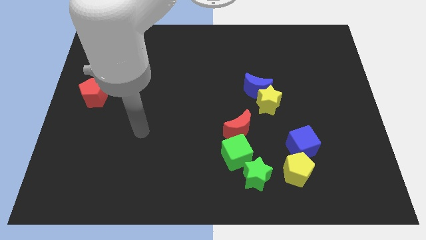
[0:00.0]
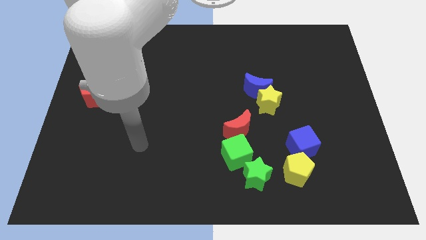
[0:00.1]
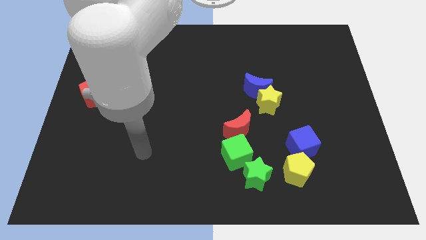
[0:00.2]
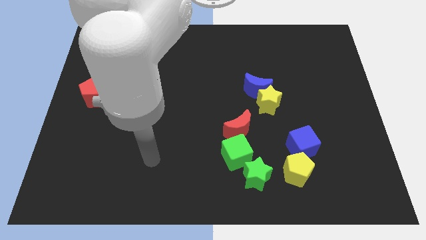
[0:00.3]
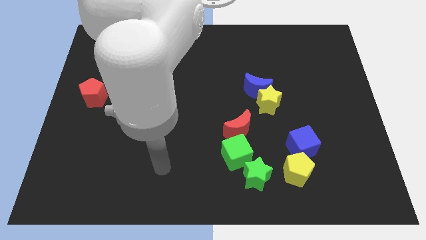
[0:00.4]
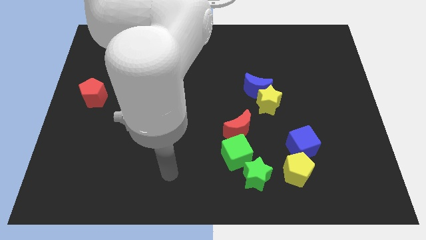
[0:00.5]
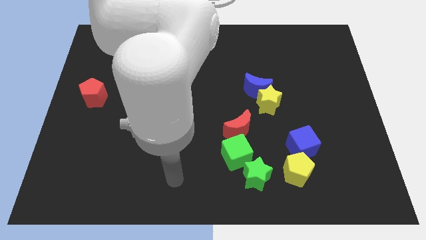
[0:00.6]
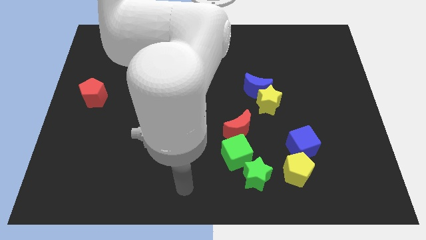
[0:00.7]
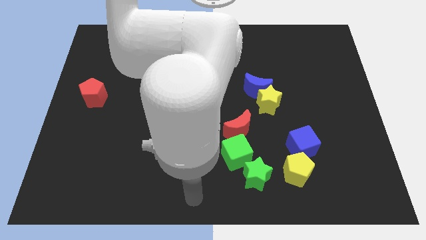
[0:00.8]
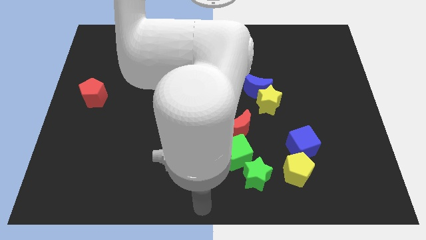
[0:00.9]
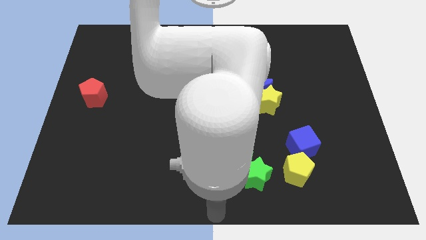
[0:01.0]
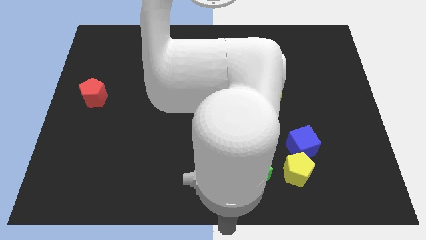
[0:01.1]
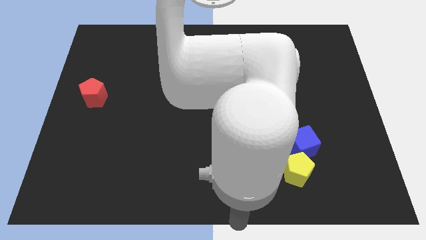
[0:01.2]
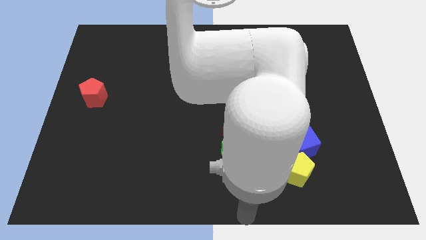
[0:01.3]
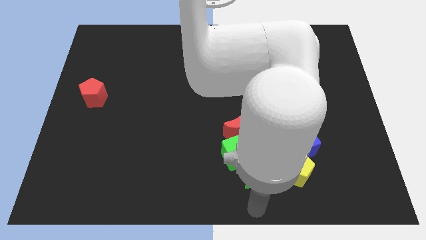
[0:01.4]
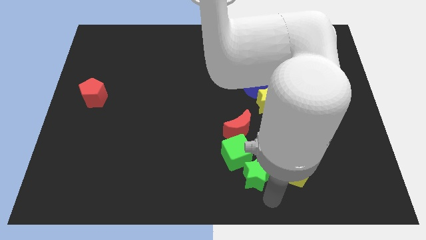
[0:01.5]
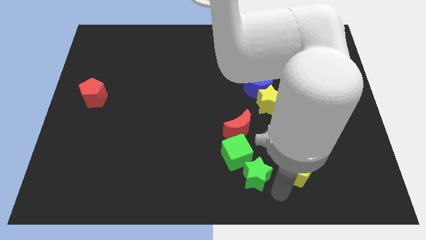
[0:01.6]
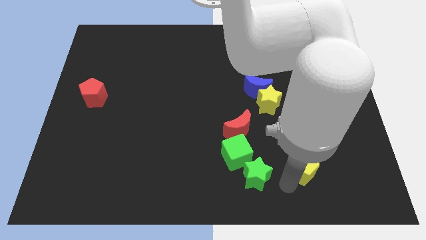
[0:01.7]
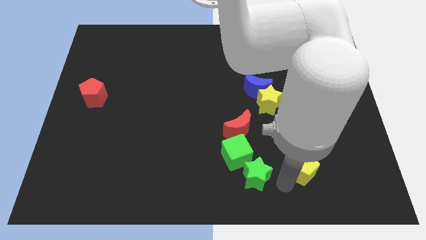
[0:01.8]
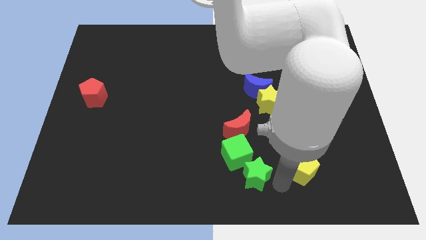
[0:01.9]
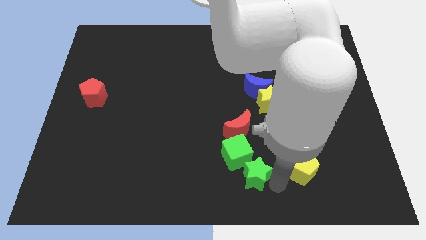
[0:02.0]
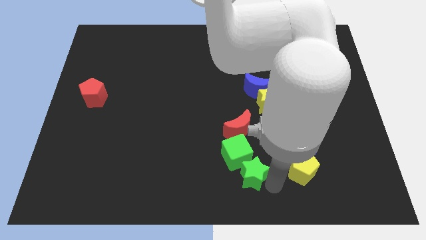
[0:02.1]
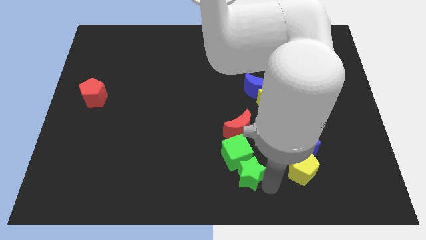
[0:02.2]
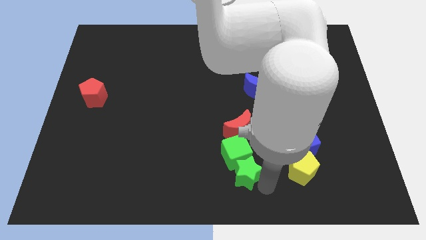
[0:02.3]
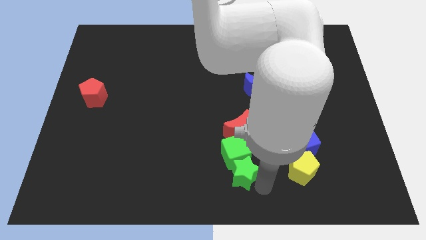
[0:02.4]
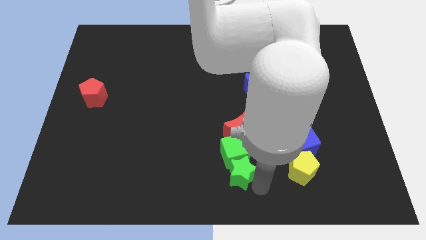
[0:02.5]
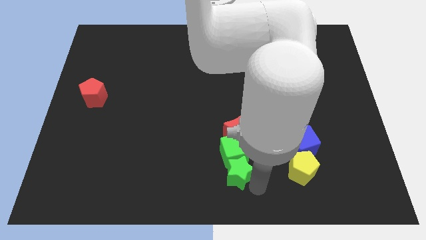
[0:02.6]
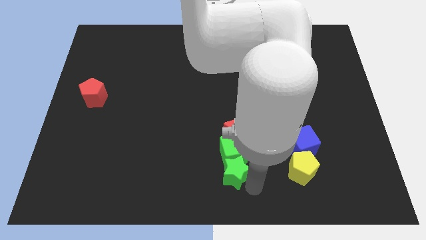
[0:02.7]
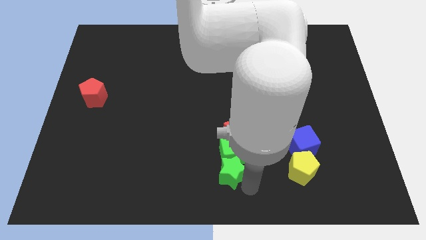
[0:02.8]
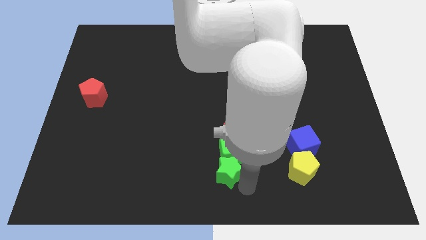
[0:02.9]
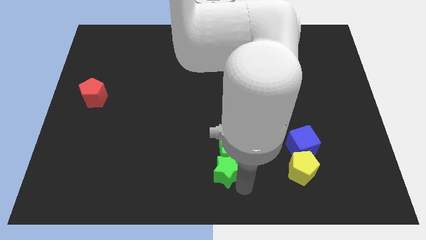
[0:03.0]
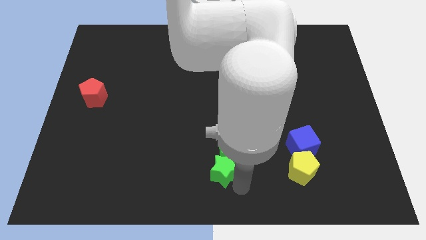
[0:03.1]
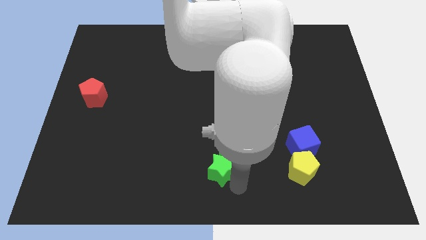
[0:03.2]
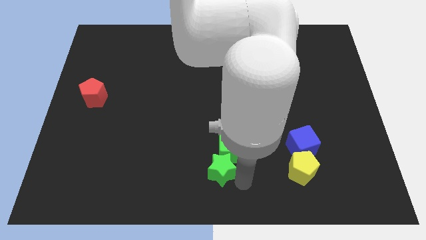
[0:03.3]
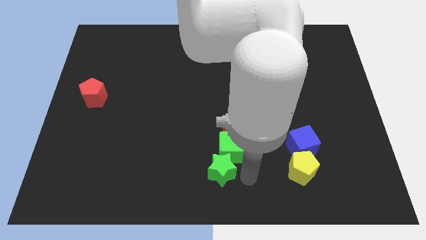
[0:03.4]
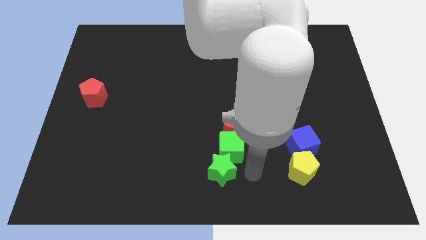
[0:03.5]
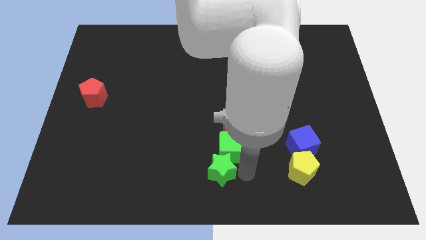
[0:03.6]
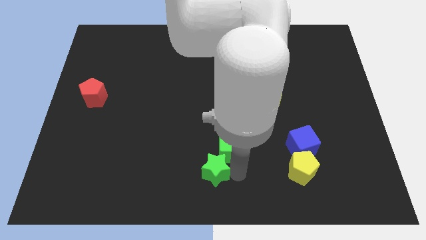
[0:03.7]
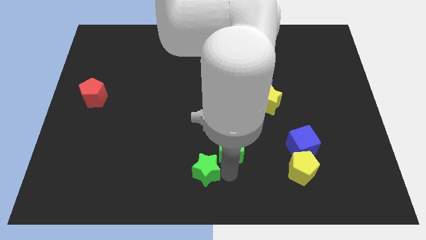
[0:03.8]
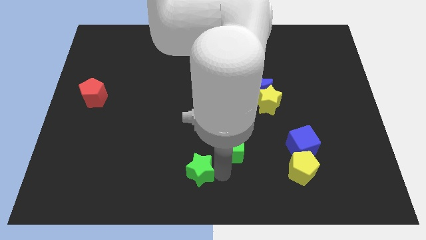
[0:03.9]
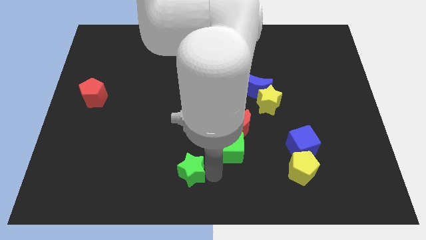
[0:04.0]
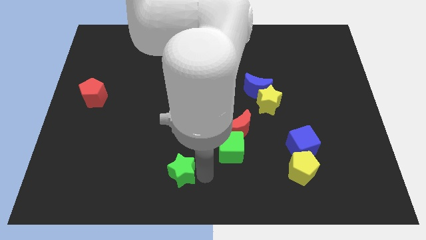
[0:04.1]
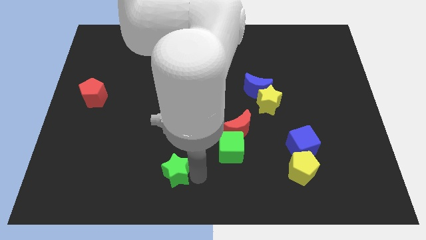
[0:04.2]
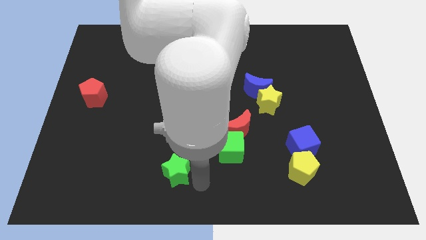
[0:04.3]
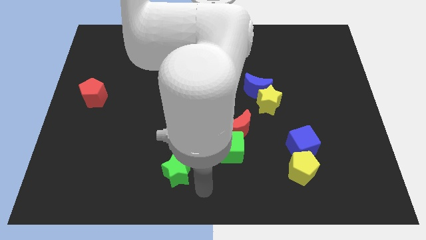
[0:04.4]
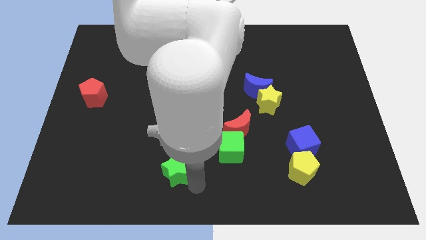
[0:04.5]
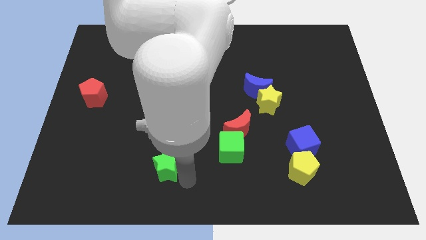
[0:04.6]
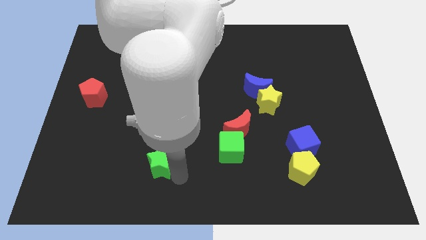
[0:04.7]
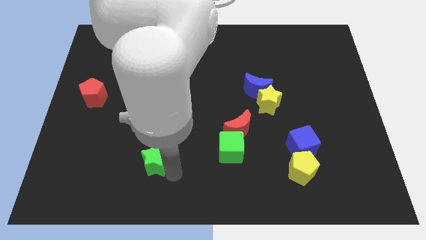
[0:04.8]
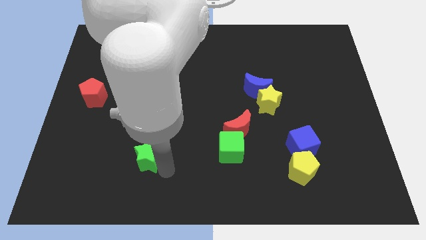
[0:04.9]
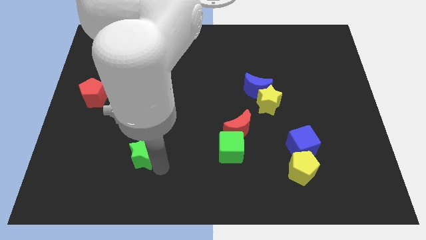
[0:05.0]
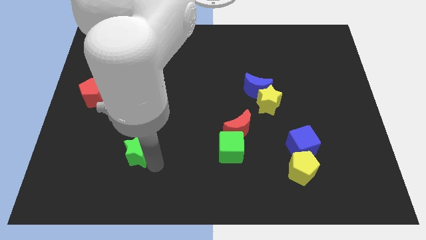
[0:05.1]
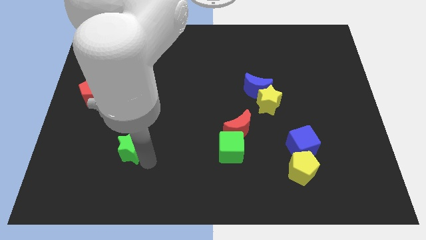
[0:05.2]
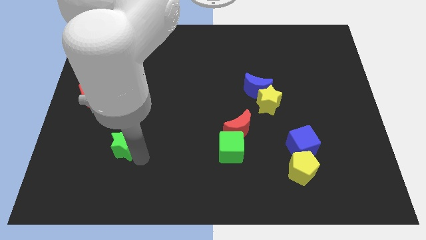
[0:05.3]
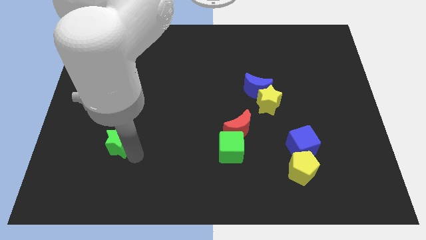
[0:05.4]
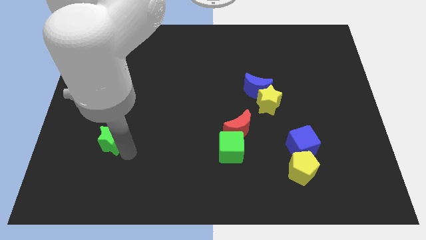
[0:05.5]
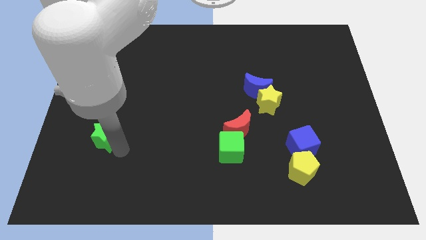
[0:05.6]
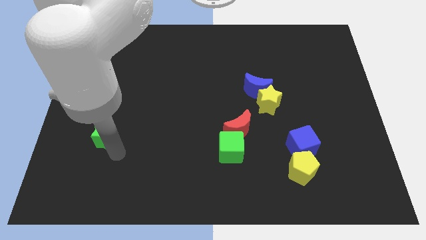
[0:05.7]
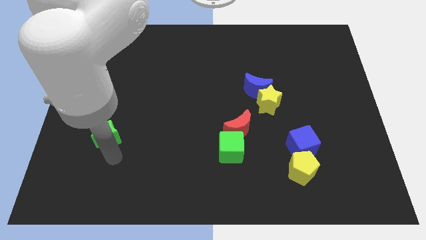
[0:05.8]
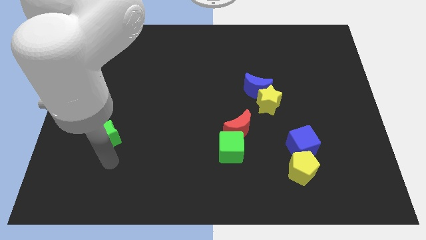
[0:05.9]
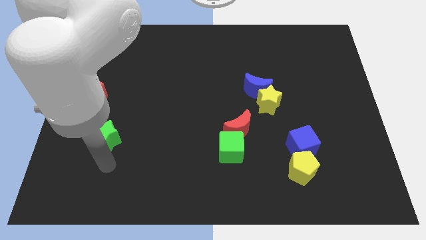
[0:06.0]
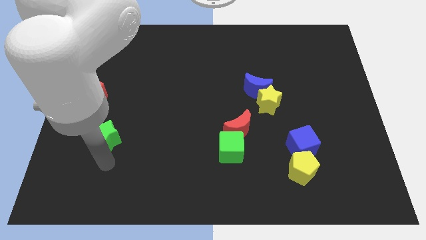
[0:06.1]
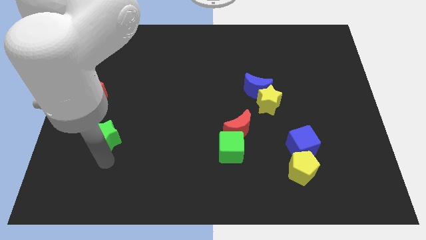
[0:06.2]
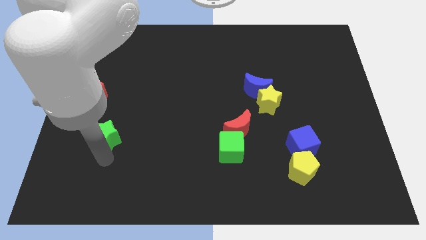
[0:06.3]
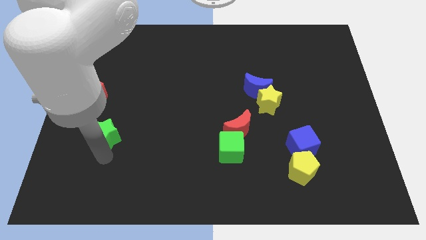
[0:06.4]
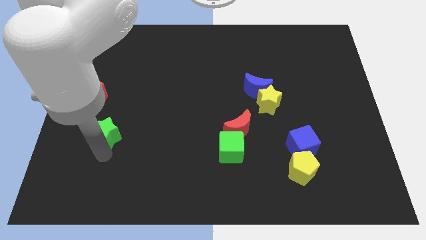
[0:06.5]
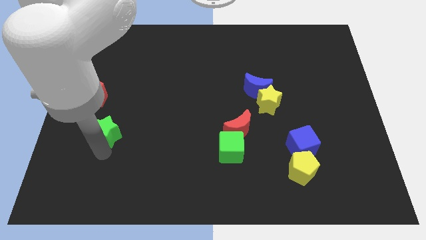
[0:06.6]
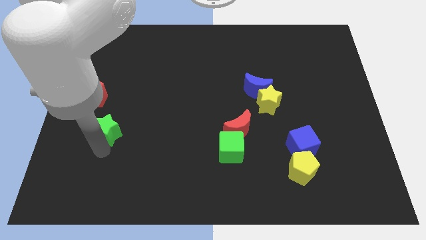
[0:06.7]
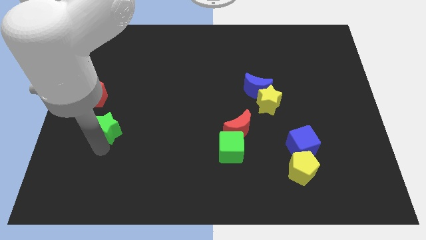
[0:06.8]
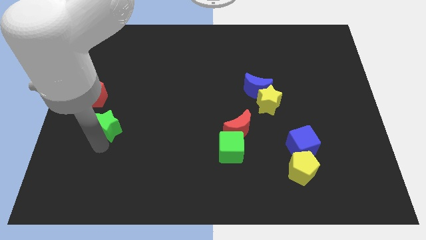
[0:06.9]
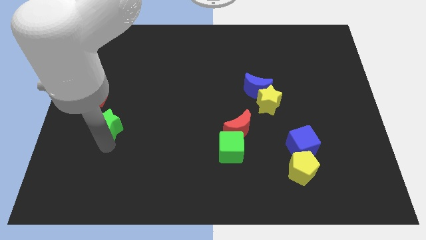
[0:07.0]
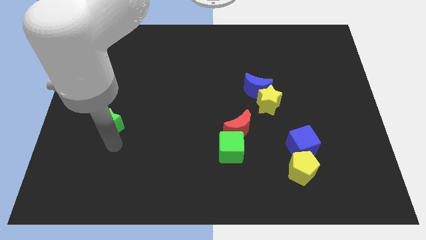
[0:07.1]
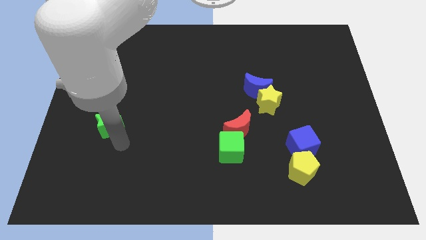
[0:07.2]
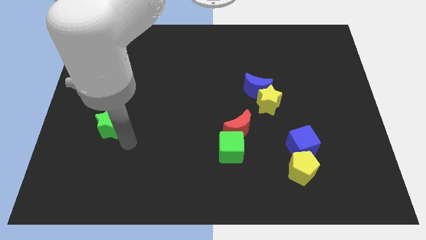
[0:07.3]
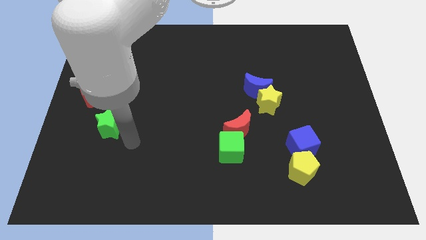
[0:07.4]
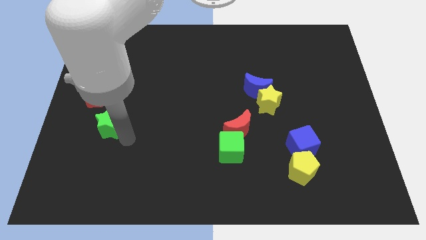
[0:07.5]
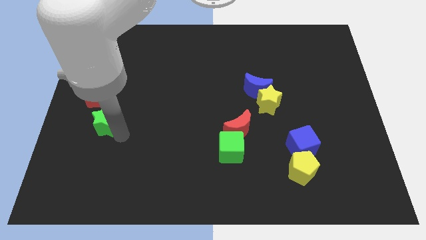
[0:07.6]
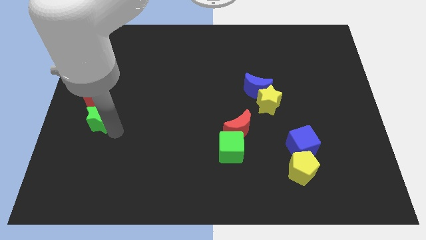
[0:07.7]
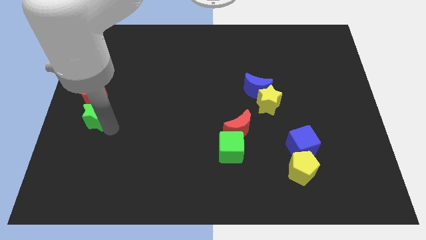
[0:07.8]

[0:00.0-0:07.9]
put the green star to the left side
